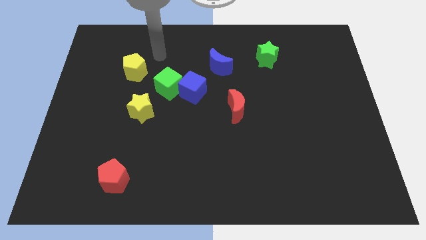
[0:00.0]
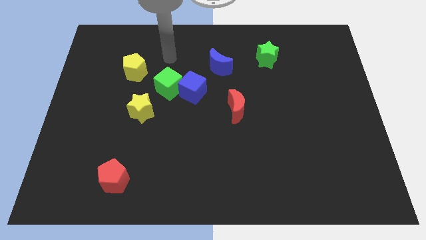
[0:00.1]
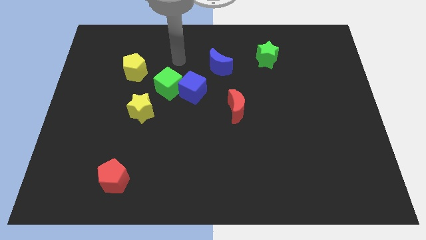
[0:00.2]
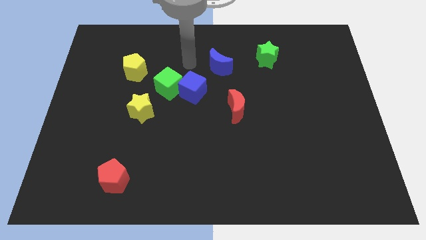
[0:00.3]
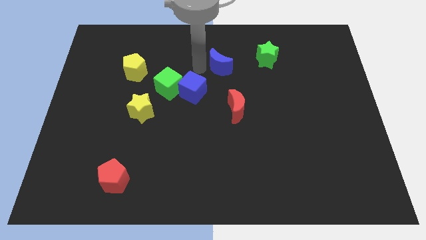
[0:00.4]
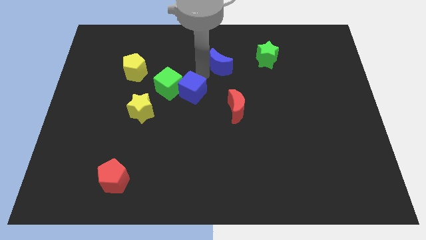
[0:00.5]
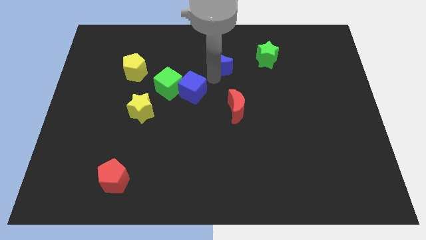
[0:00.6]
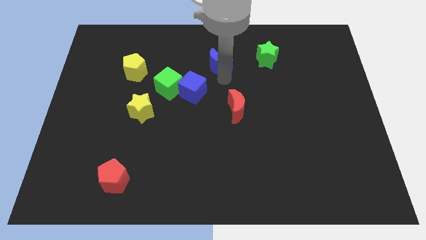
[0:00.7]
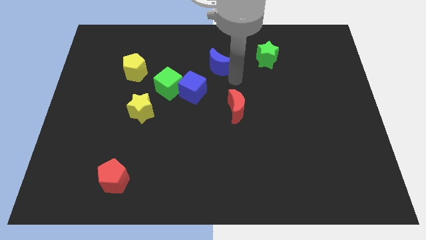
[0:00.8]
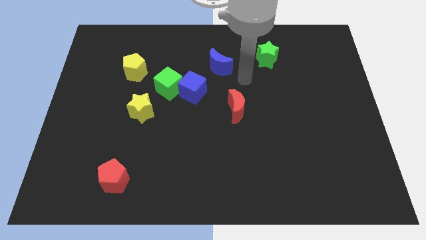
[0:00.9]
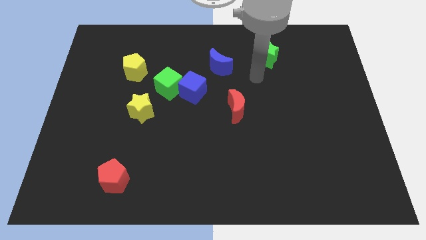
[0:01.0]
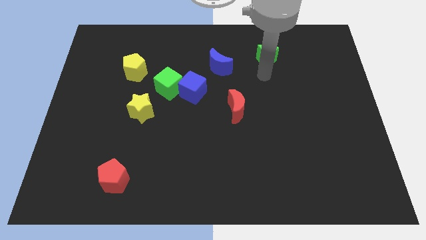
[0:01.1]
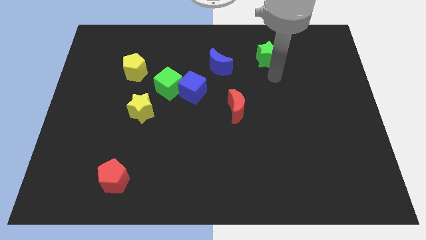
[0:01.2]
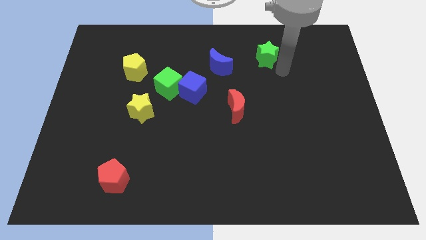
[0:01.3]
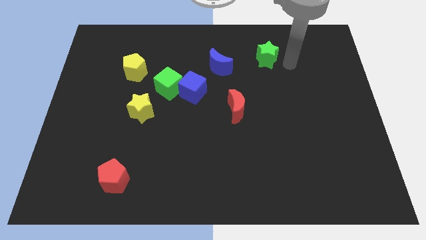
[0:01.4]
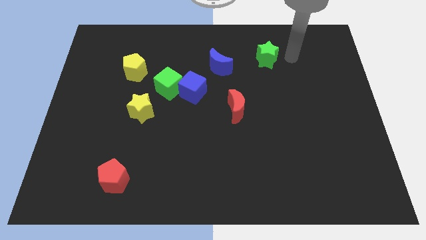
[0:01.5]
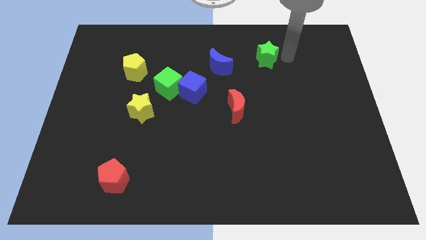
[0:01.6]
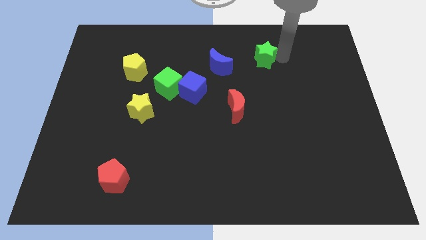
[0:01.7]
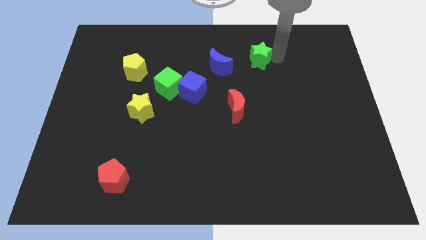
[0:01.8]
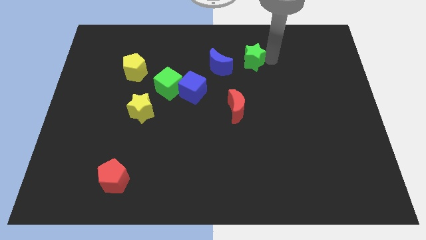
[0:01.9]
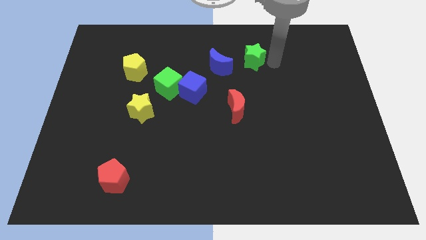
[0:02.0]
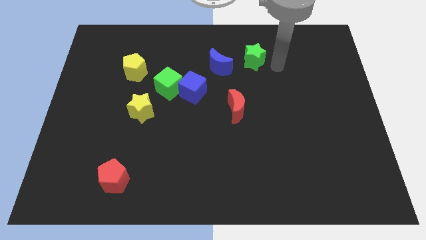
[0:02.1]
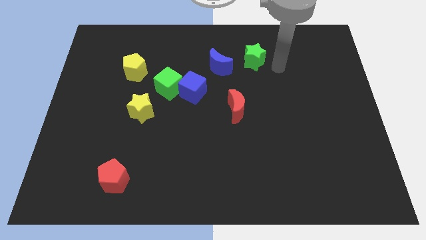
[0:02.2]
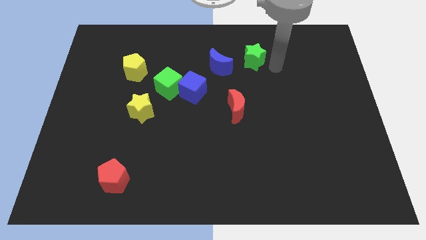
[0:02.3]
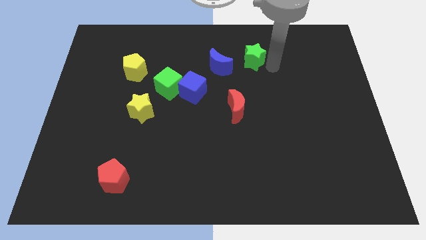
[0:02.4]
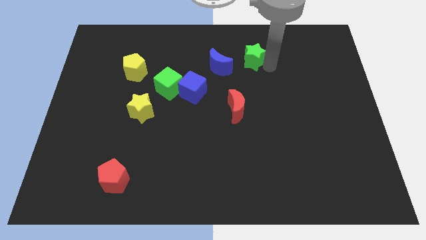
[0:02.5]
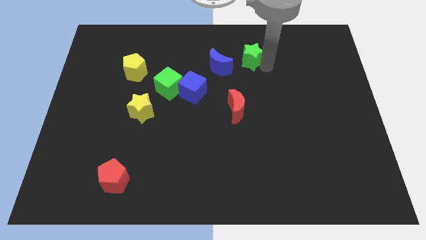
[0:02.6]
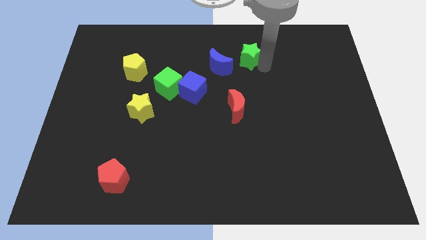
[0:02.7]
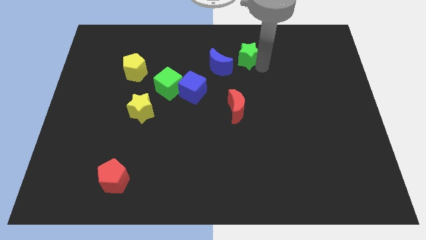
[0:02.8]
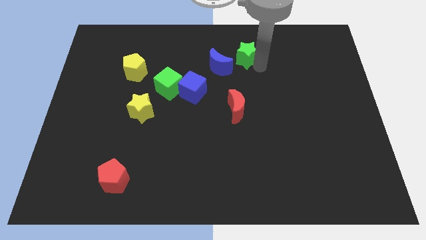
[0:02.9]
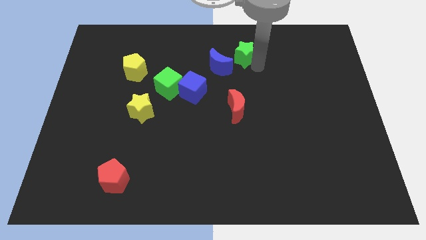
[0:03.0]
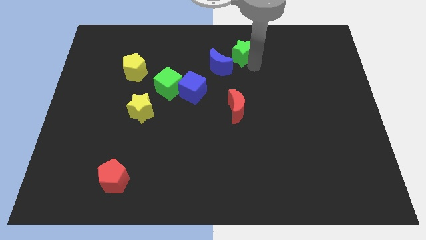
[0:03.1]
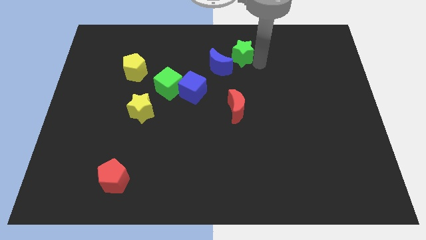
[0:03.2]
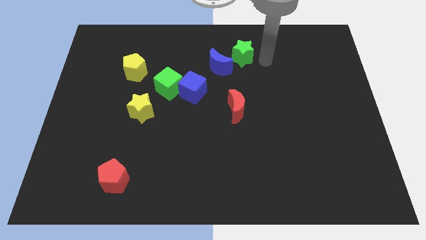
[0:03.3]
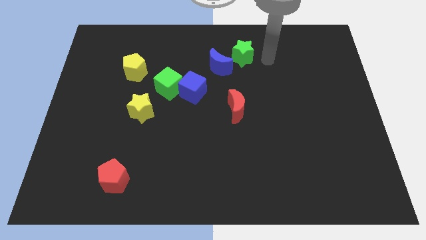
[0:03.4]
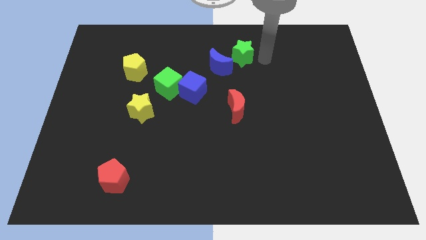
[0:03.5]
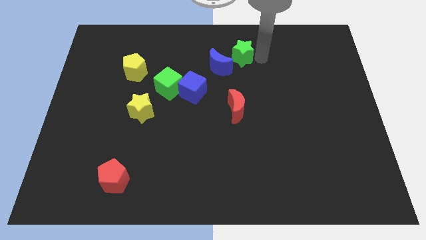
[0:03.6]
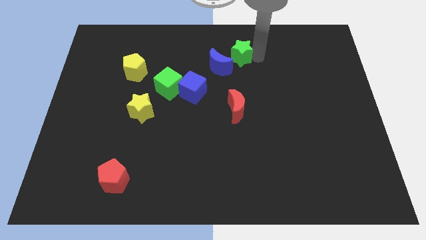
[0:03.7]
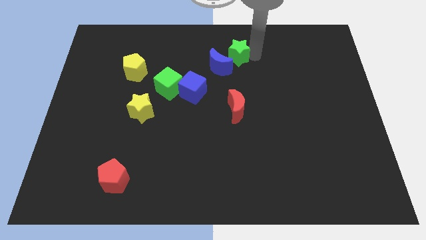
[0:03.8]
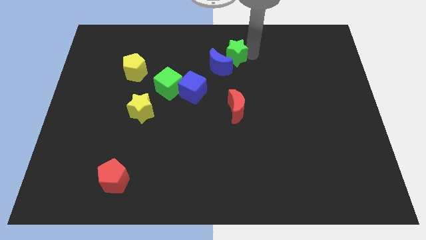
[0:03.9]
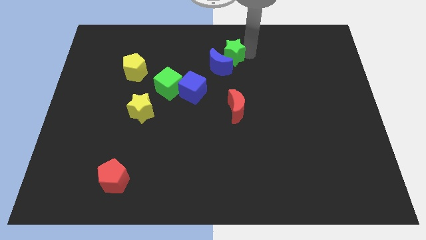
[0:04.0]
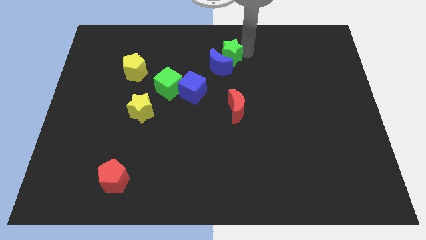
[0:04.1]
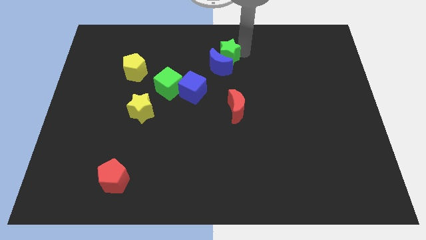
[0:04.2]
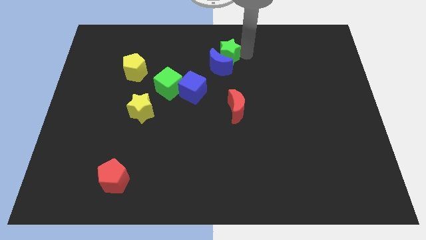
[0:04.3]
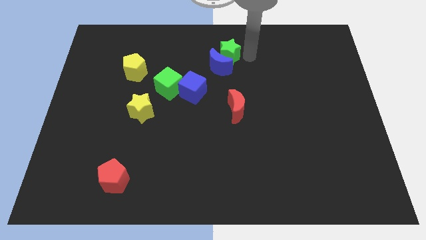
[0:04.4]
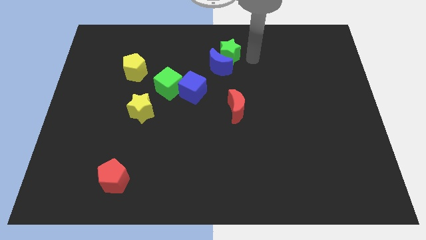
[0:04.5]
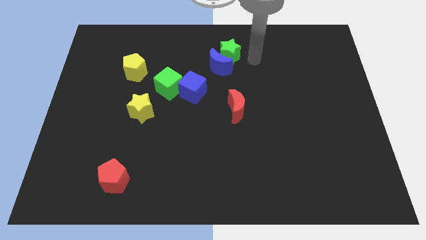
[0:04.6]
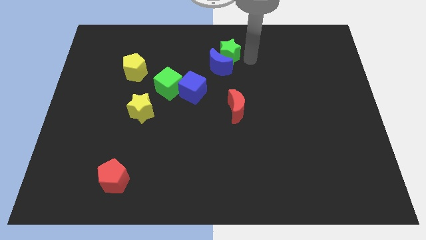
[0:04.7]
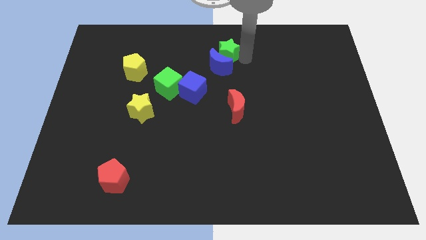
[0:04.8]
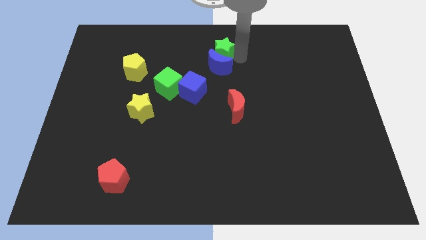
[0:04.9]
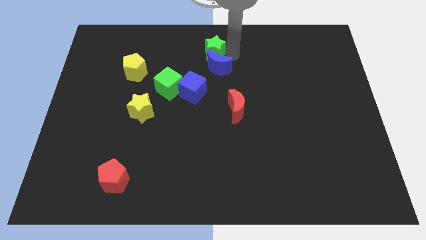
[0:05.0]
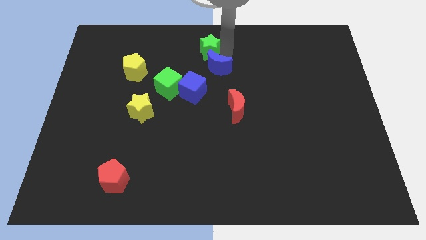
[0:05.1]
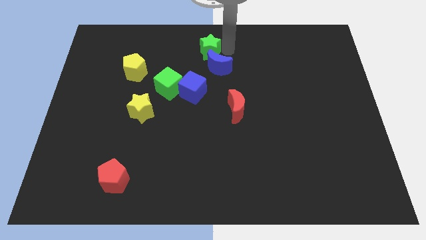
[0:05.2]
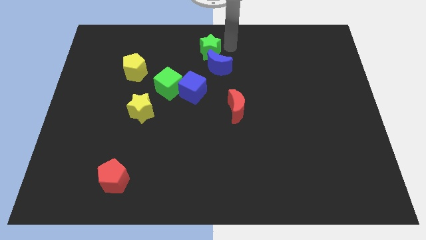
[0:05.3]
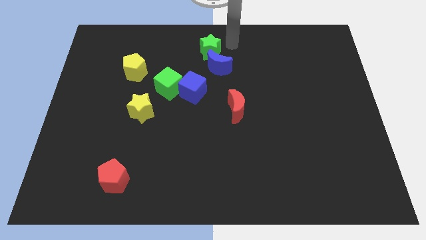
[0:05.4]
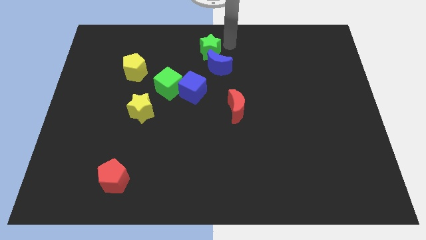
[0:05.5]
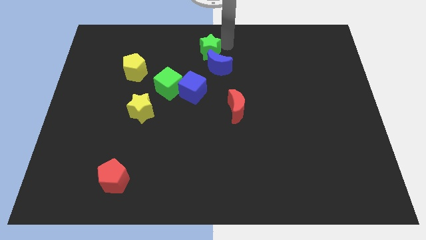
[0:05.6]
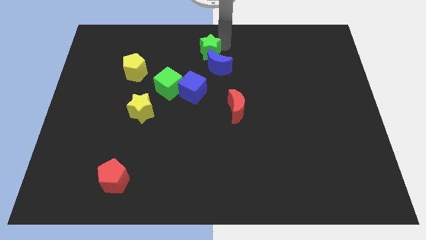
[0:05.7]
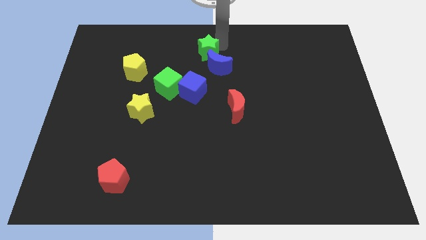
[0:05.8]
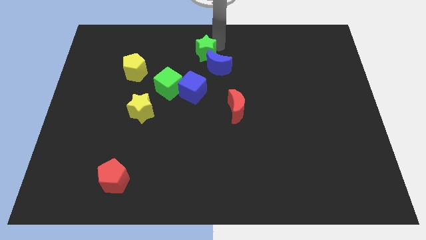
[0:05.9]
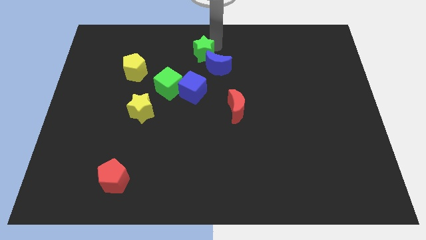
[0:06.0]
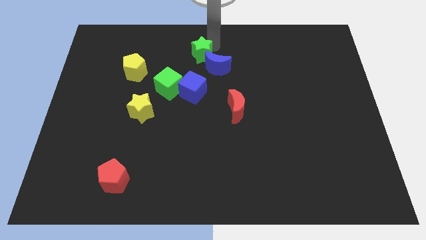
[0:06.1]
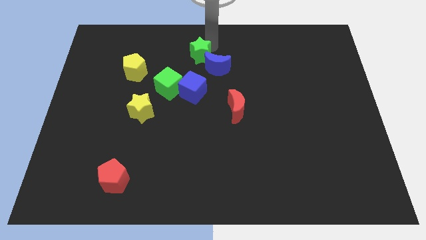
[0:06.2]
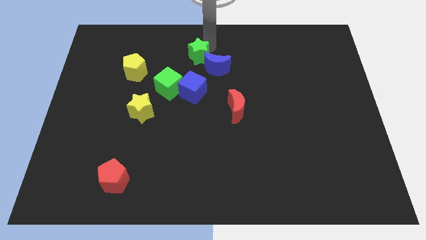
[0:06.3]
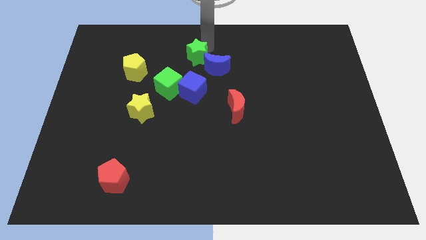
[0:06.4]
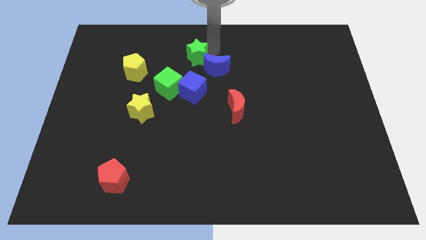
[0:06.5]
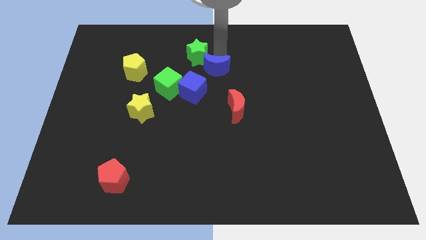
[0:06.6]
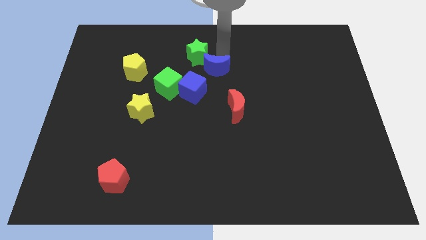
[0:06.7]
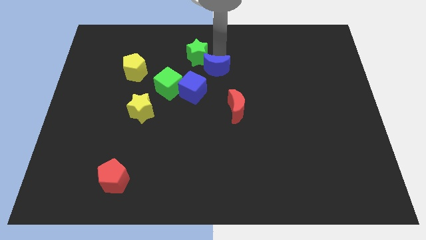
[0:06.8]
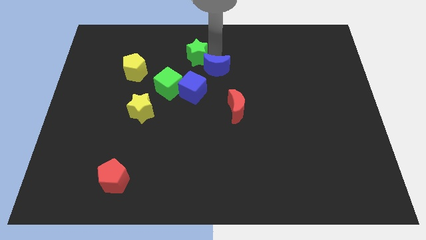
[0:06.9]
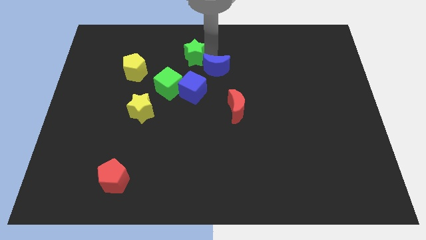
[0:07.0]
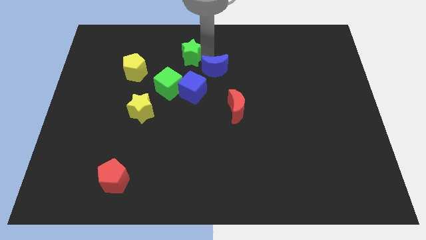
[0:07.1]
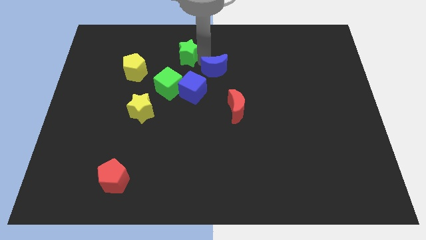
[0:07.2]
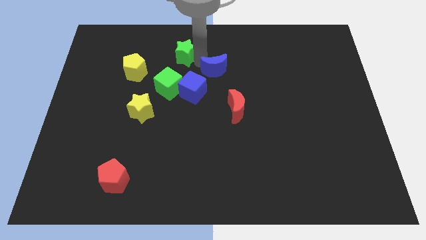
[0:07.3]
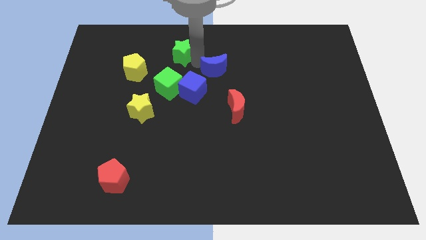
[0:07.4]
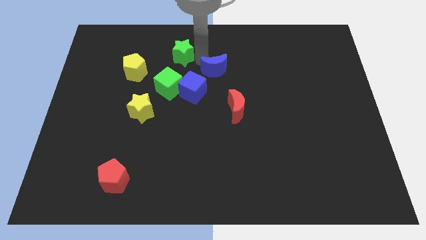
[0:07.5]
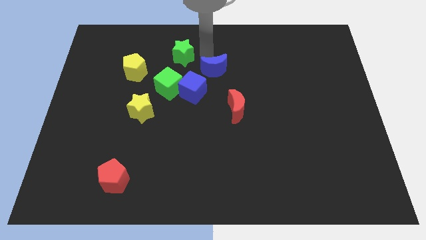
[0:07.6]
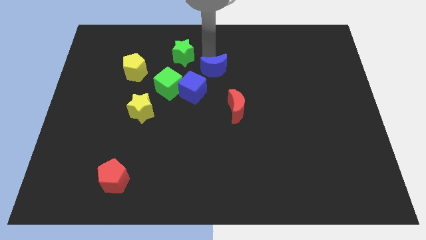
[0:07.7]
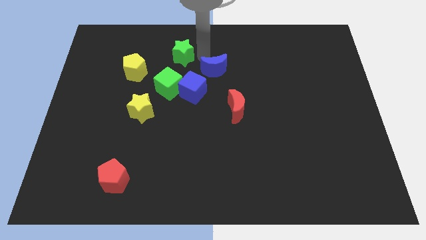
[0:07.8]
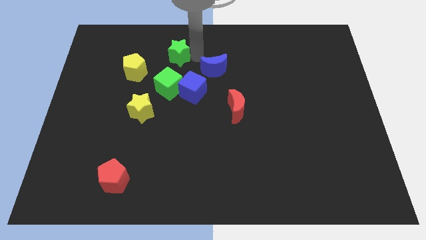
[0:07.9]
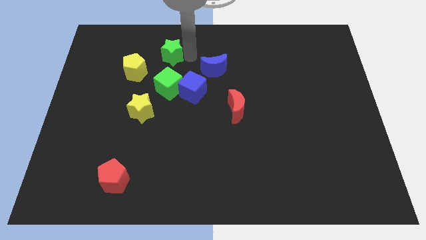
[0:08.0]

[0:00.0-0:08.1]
move the green star to the top right of the yellow pentagon
